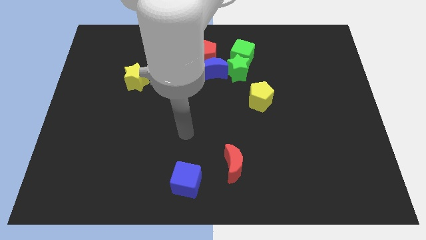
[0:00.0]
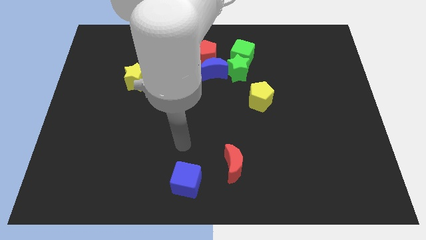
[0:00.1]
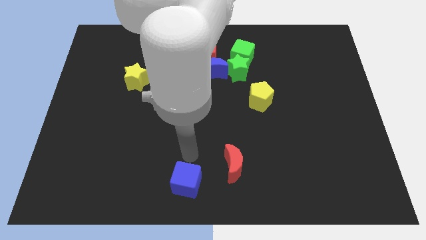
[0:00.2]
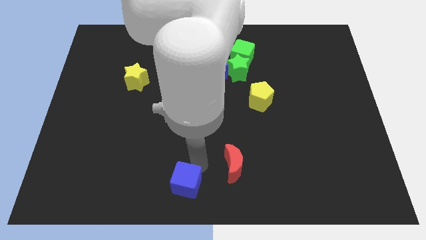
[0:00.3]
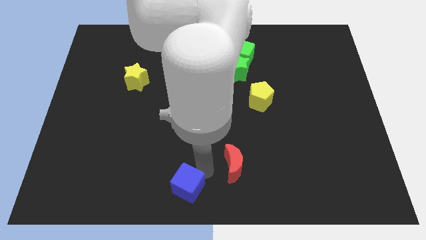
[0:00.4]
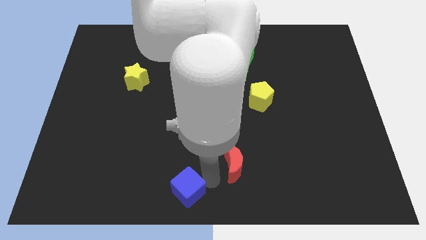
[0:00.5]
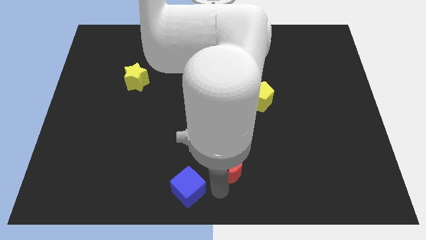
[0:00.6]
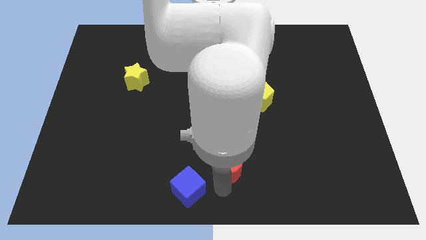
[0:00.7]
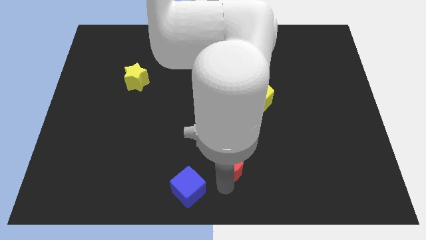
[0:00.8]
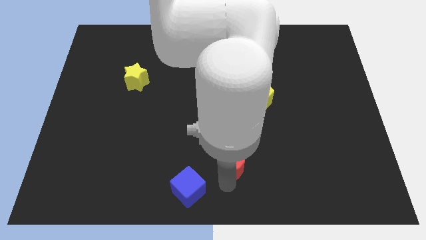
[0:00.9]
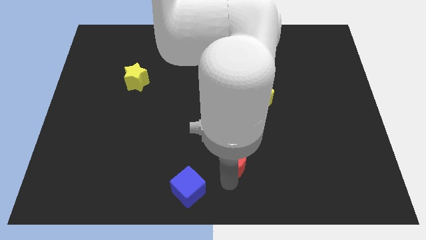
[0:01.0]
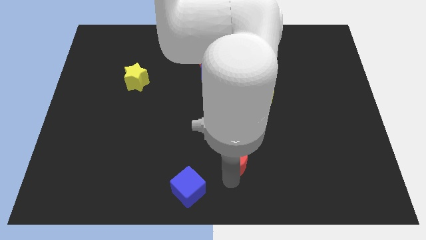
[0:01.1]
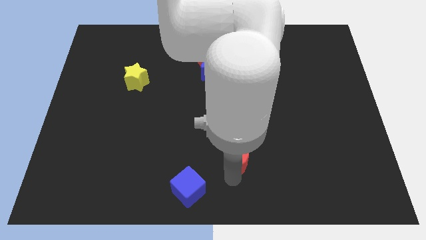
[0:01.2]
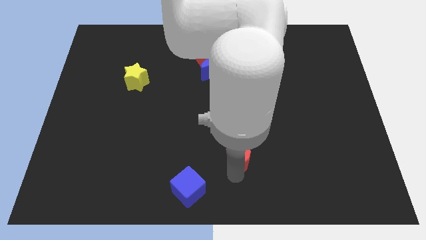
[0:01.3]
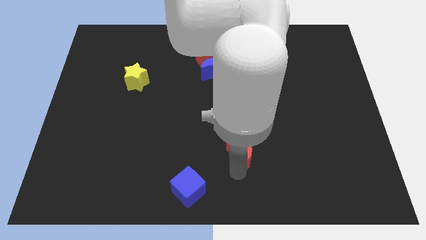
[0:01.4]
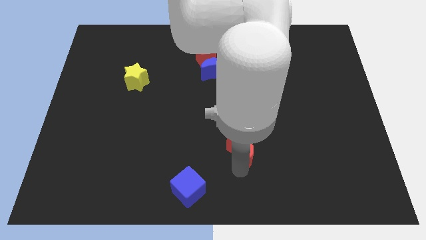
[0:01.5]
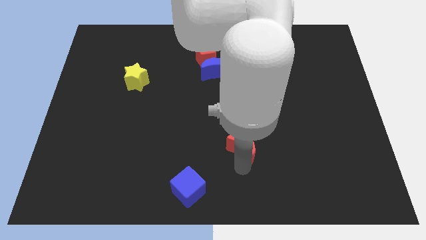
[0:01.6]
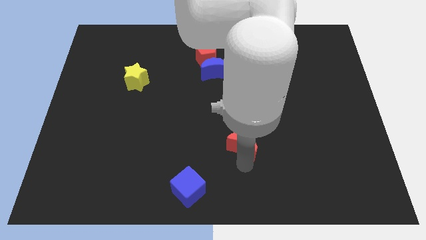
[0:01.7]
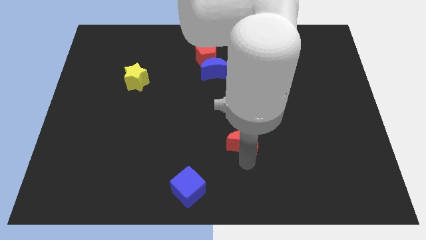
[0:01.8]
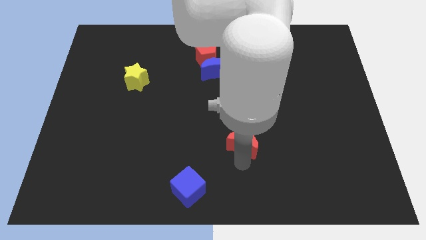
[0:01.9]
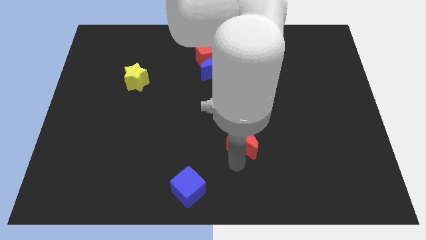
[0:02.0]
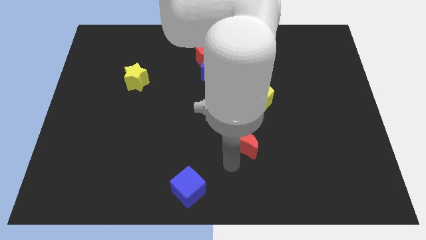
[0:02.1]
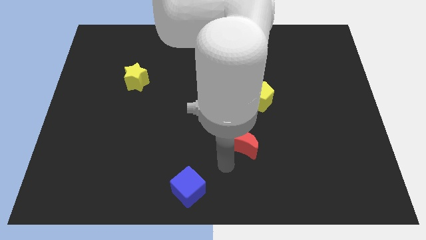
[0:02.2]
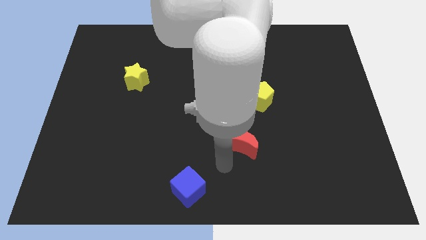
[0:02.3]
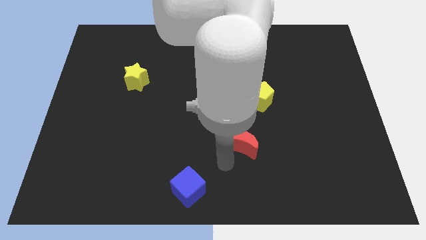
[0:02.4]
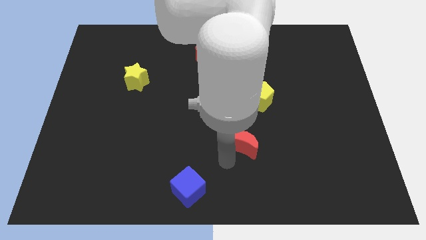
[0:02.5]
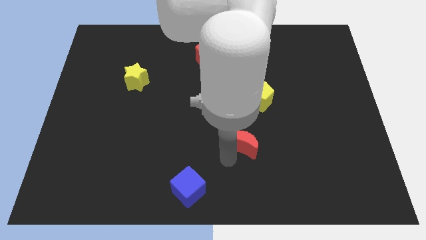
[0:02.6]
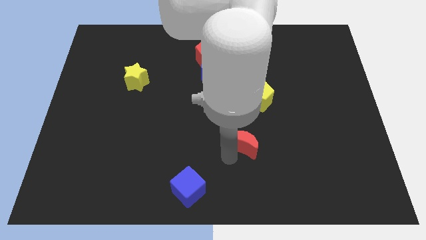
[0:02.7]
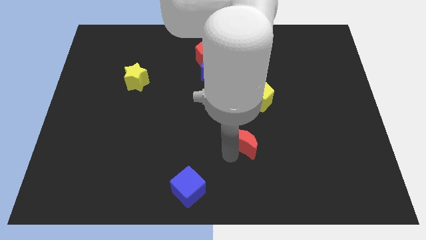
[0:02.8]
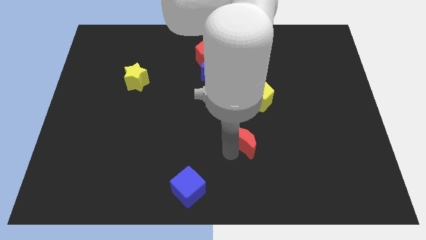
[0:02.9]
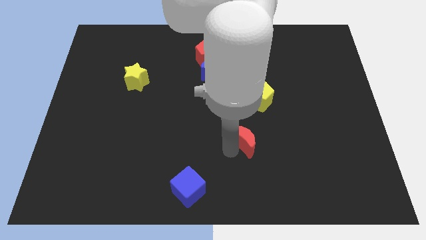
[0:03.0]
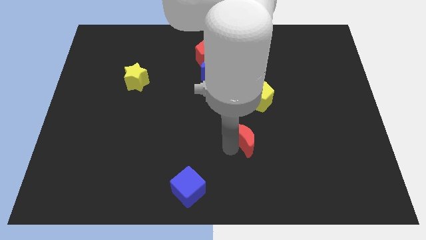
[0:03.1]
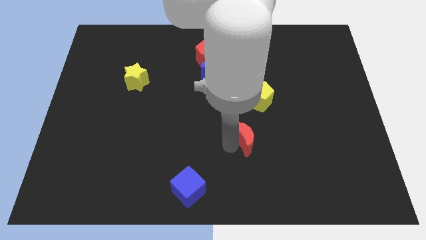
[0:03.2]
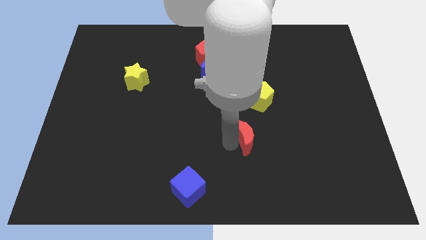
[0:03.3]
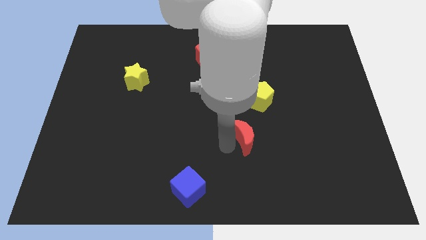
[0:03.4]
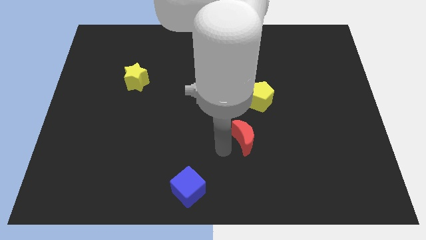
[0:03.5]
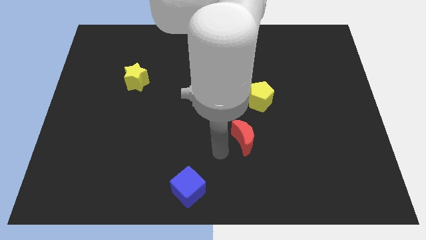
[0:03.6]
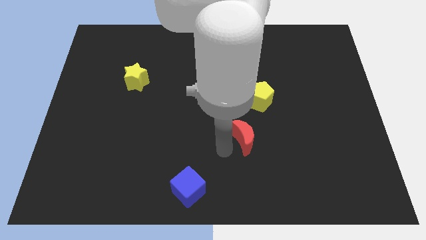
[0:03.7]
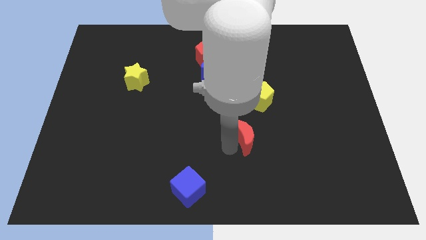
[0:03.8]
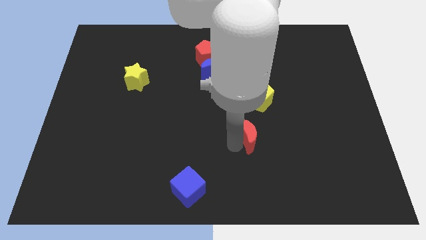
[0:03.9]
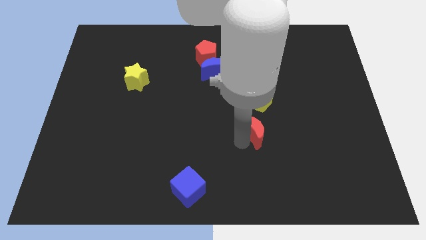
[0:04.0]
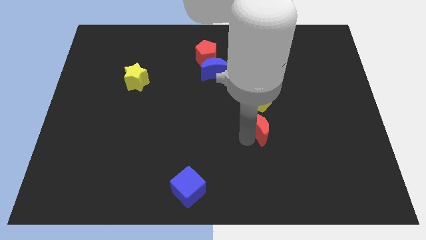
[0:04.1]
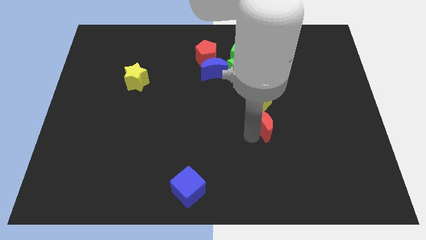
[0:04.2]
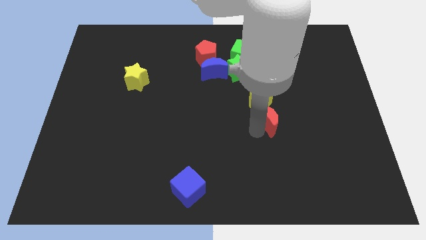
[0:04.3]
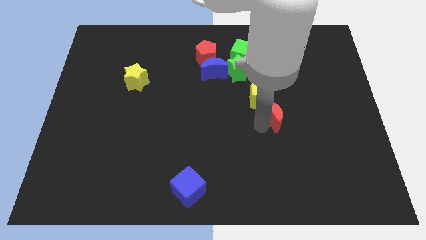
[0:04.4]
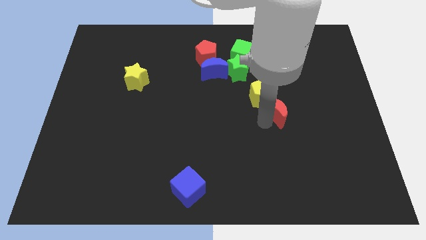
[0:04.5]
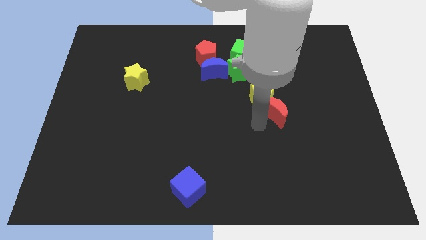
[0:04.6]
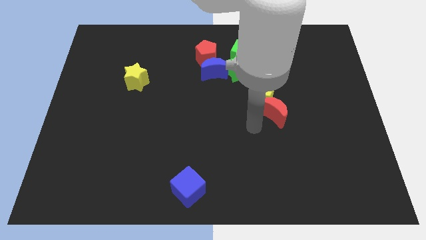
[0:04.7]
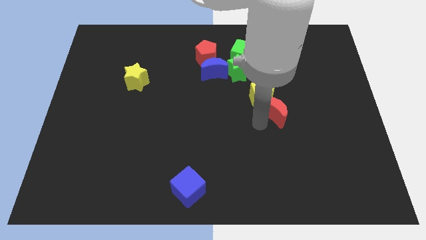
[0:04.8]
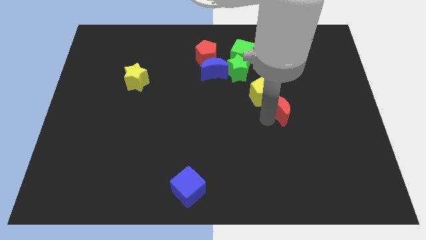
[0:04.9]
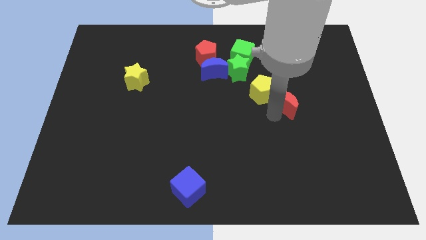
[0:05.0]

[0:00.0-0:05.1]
slide the red moon just right of the yellow pentagon

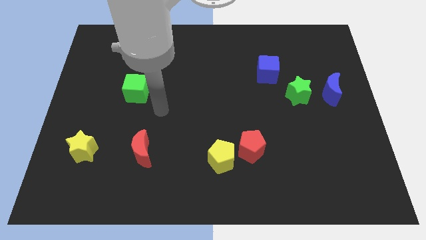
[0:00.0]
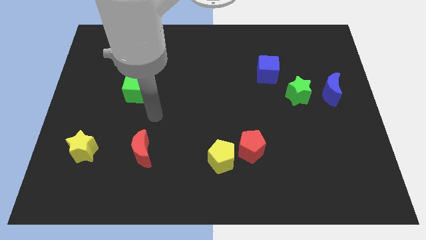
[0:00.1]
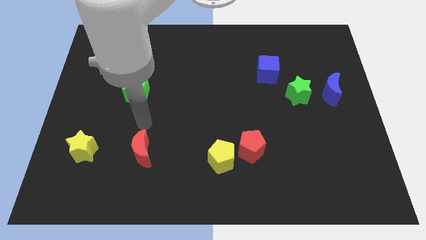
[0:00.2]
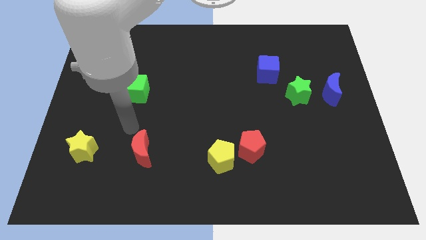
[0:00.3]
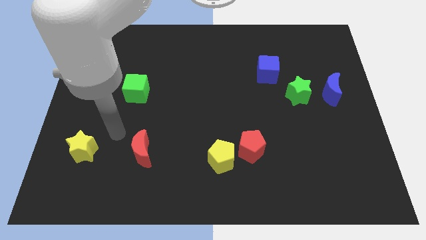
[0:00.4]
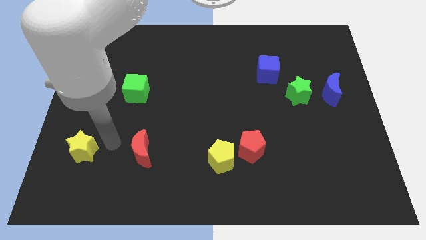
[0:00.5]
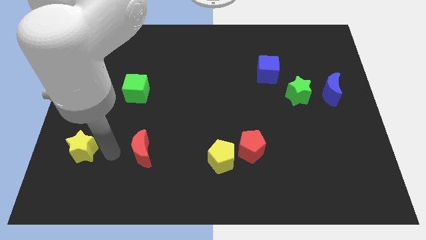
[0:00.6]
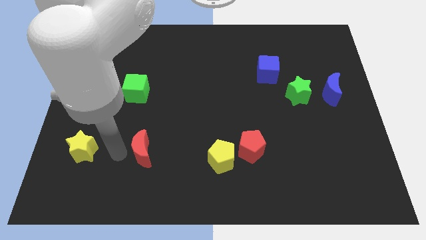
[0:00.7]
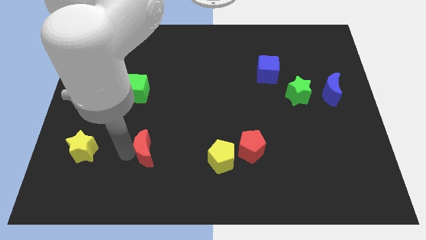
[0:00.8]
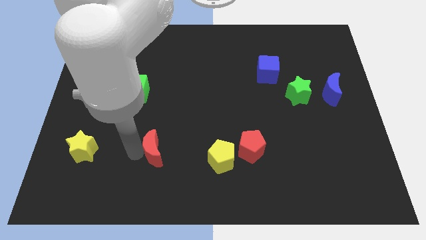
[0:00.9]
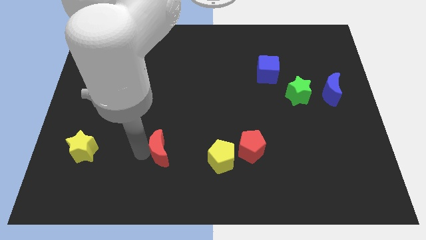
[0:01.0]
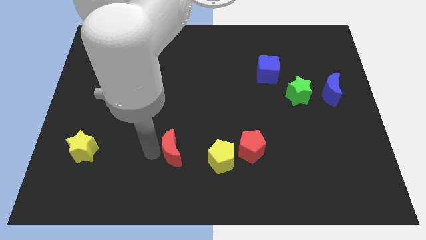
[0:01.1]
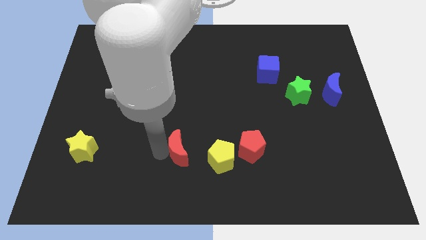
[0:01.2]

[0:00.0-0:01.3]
slide the red moon to the left side of the red pentagon
